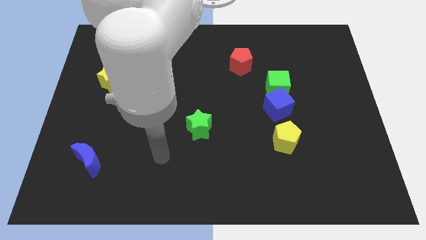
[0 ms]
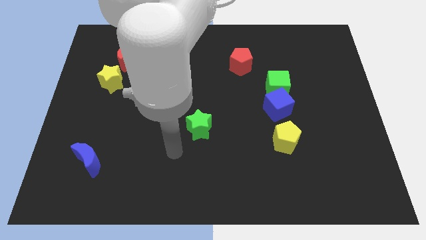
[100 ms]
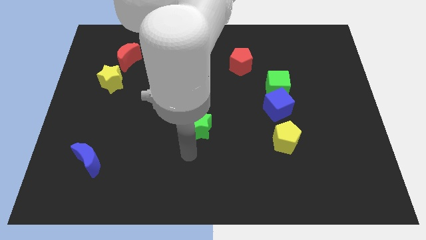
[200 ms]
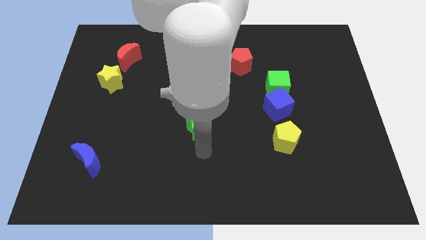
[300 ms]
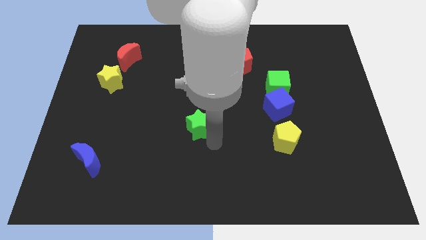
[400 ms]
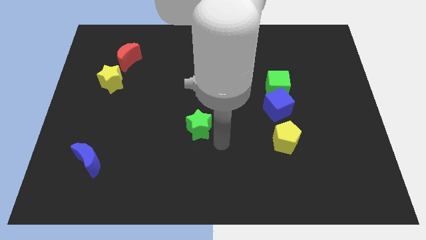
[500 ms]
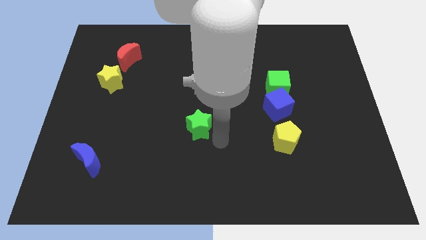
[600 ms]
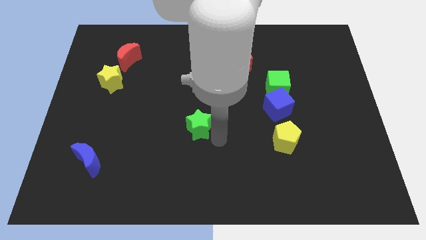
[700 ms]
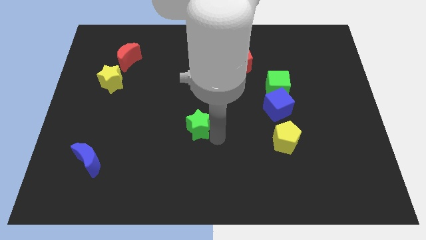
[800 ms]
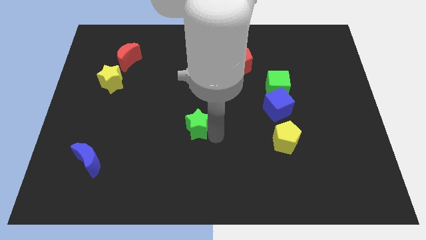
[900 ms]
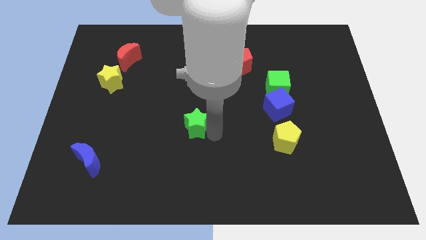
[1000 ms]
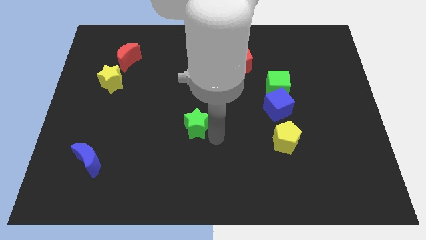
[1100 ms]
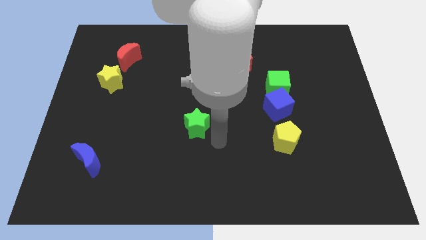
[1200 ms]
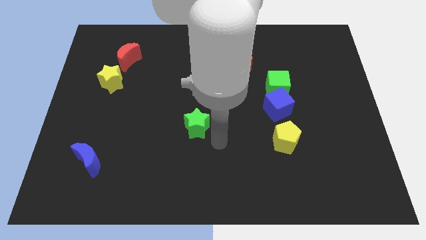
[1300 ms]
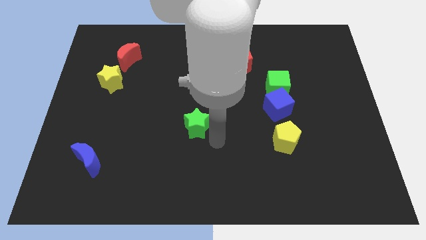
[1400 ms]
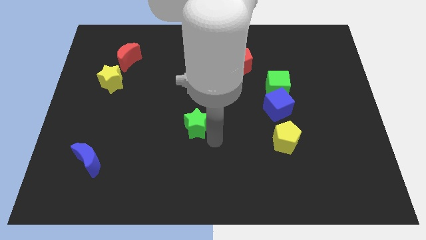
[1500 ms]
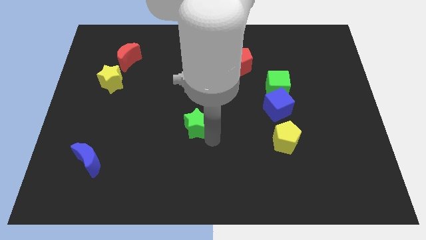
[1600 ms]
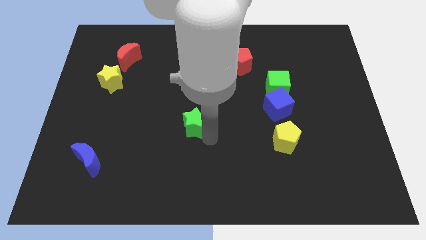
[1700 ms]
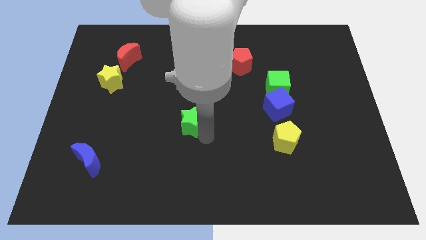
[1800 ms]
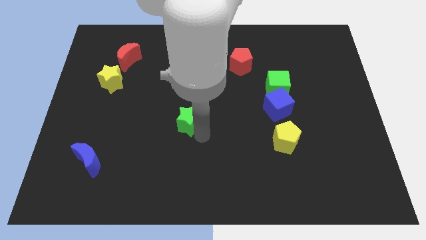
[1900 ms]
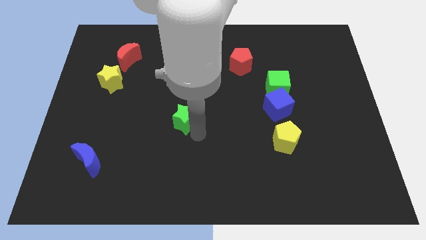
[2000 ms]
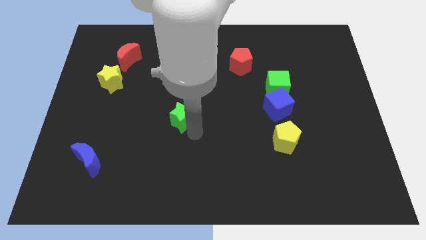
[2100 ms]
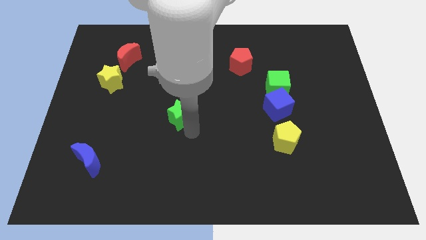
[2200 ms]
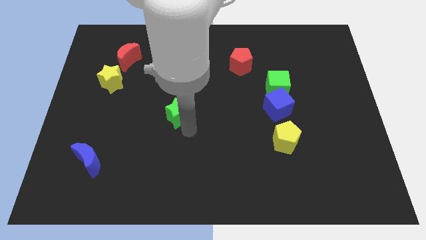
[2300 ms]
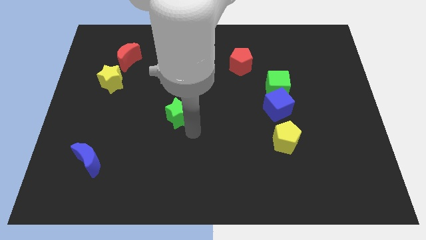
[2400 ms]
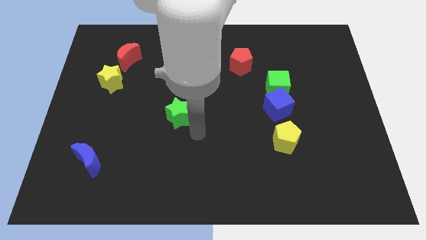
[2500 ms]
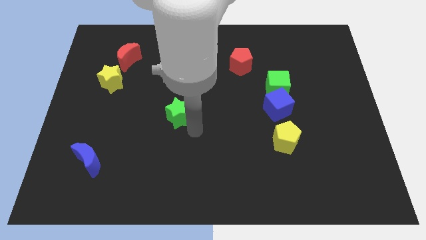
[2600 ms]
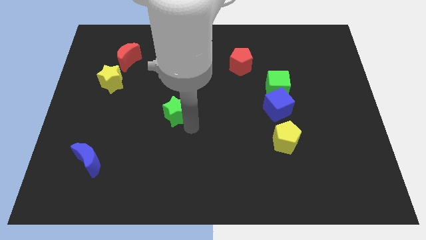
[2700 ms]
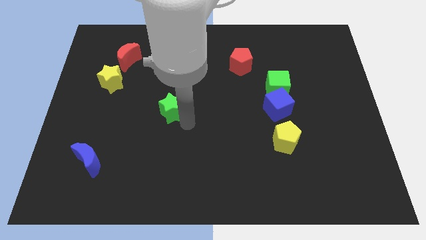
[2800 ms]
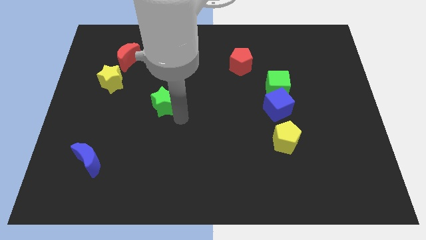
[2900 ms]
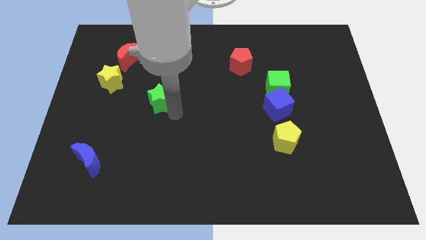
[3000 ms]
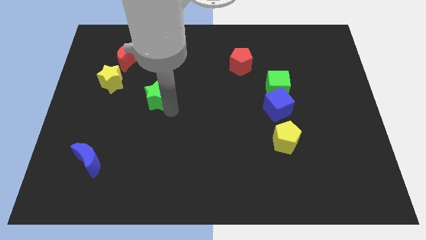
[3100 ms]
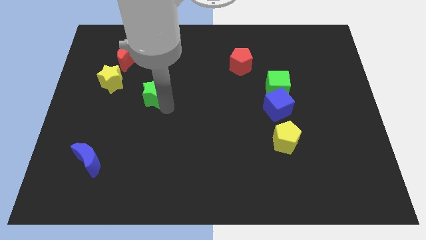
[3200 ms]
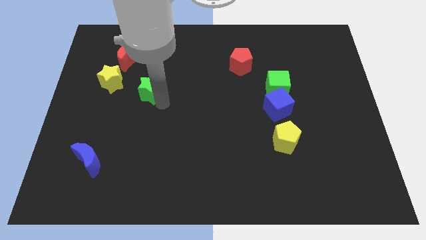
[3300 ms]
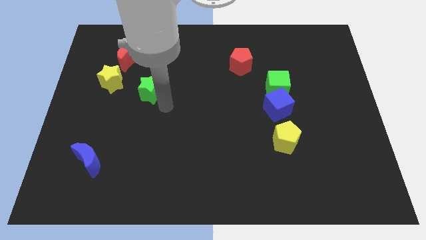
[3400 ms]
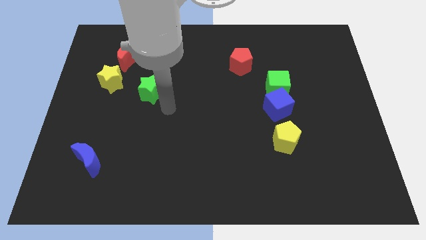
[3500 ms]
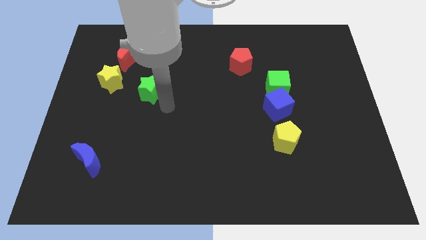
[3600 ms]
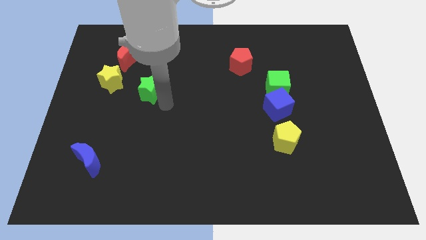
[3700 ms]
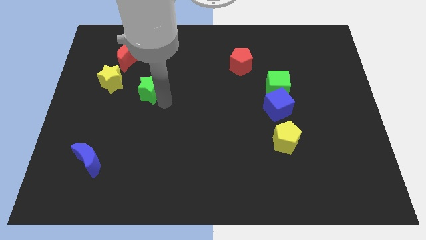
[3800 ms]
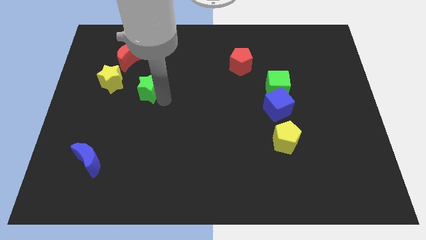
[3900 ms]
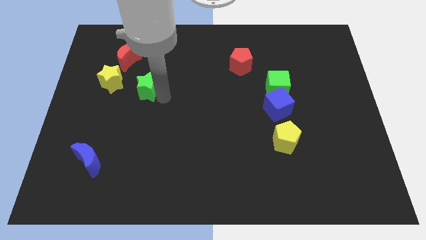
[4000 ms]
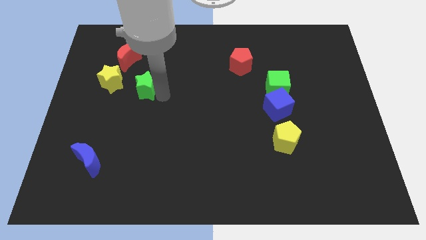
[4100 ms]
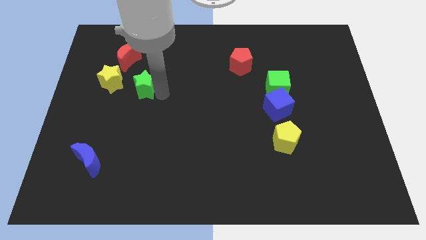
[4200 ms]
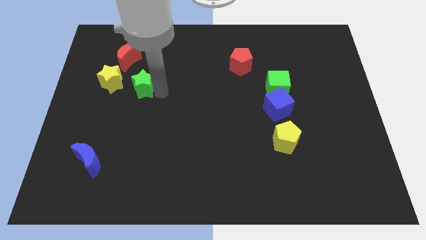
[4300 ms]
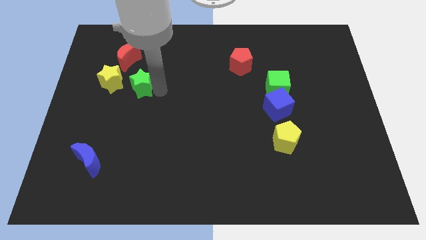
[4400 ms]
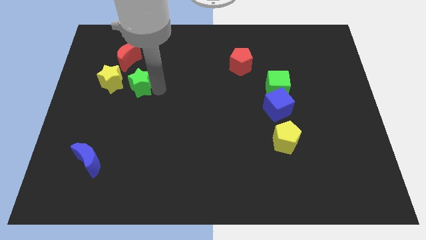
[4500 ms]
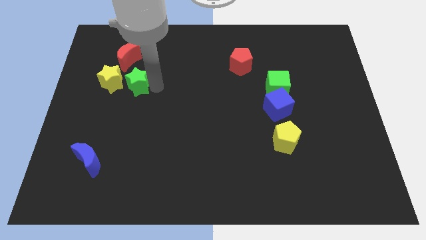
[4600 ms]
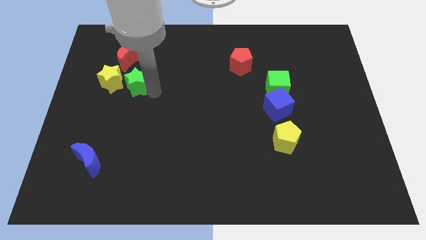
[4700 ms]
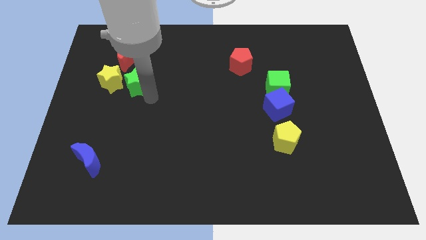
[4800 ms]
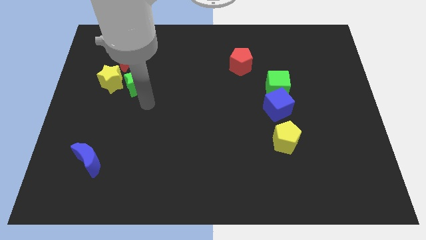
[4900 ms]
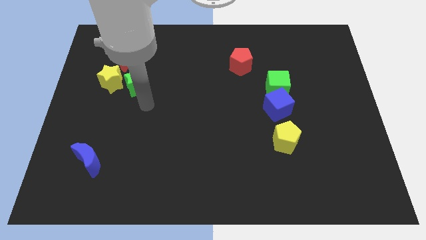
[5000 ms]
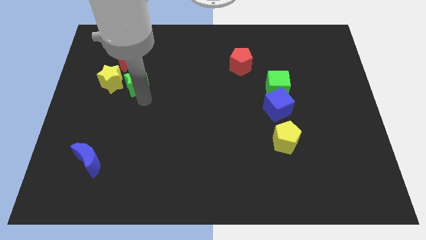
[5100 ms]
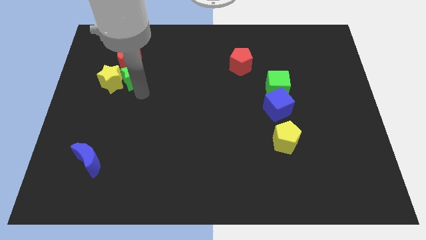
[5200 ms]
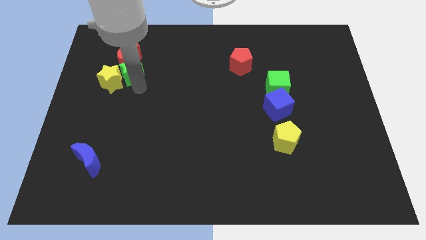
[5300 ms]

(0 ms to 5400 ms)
push the green star towards the red moon
